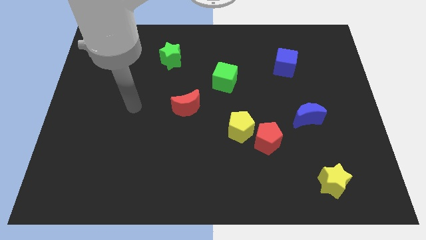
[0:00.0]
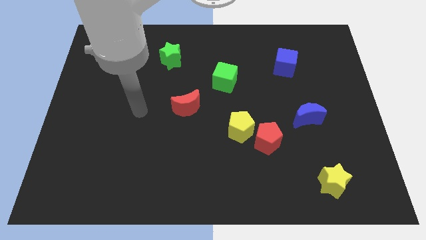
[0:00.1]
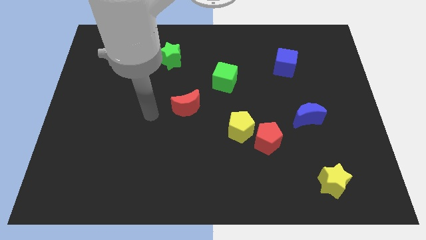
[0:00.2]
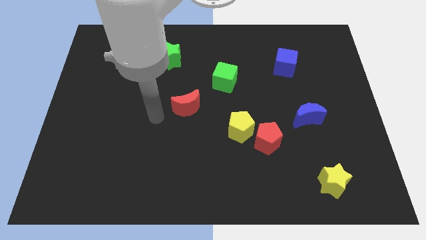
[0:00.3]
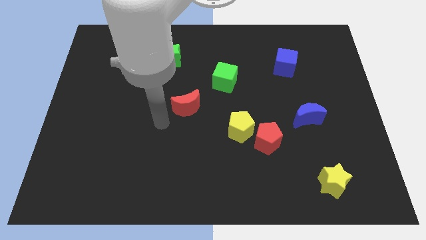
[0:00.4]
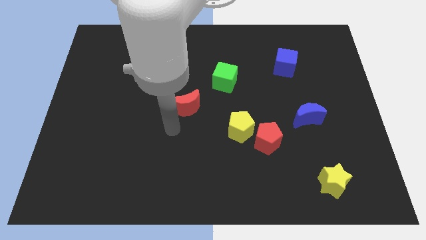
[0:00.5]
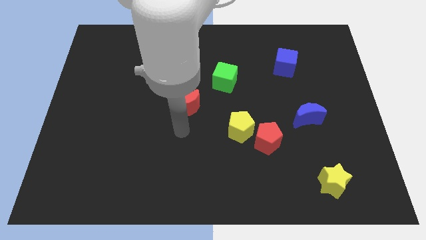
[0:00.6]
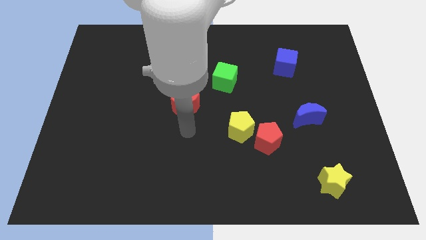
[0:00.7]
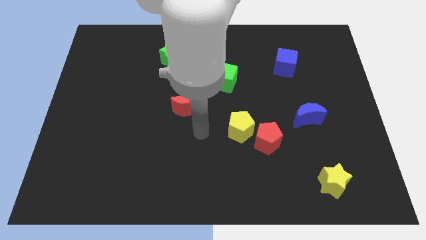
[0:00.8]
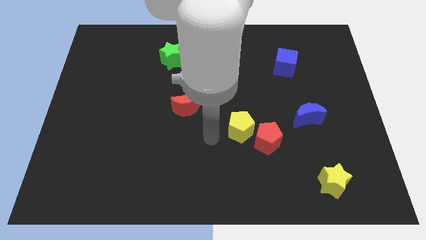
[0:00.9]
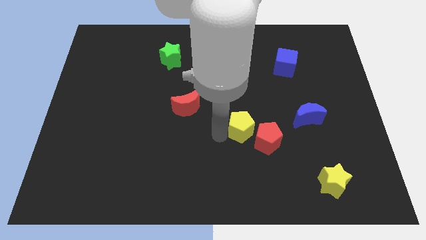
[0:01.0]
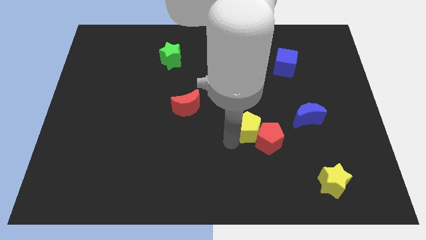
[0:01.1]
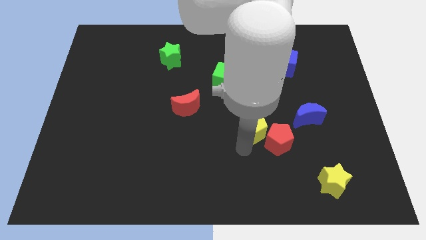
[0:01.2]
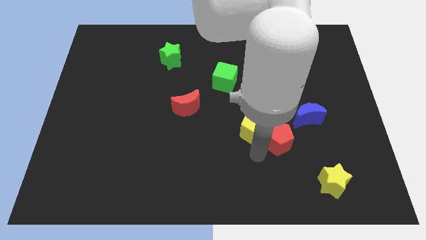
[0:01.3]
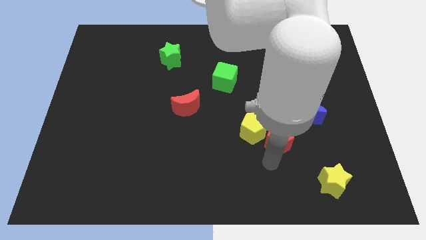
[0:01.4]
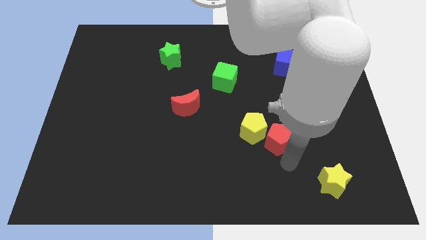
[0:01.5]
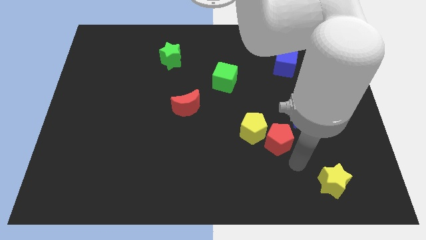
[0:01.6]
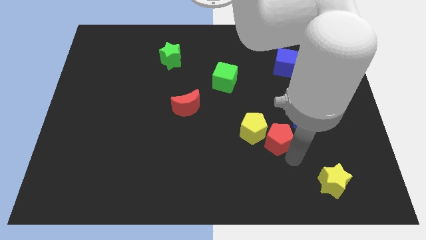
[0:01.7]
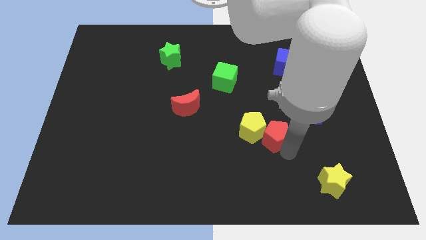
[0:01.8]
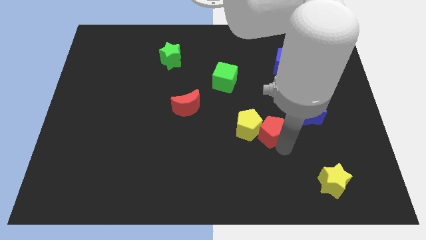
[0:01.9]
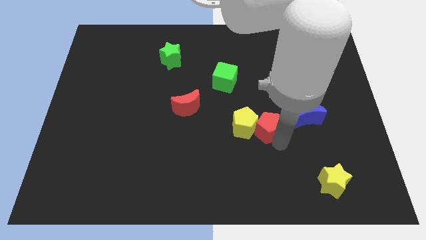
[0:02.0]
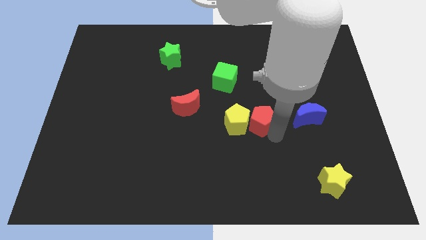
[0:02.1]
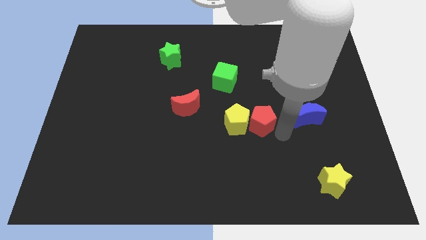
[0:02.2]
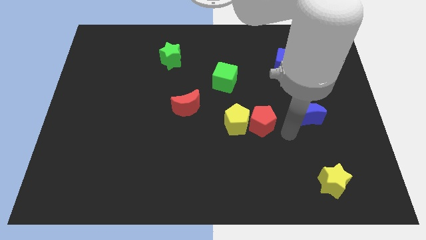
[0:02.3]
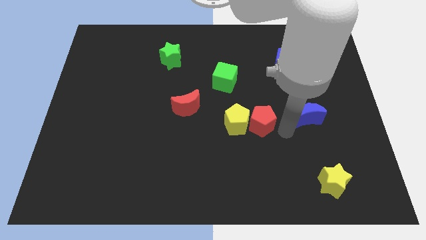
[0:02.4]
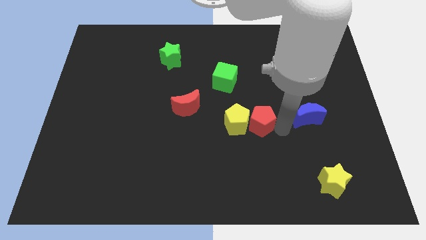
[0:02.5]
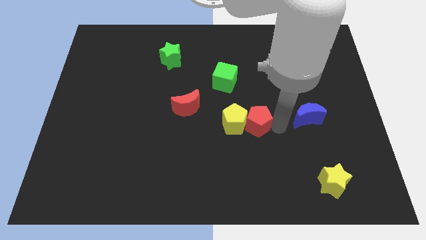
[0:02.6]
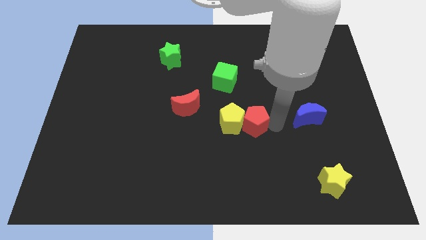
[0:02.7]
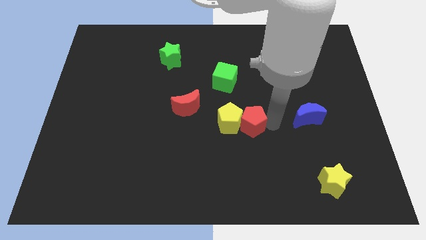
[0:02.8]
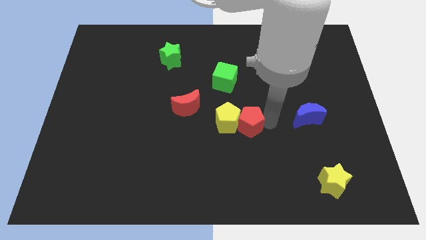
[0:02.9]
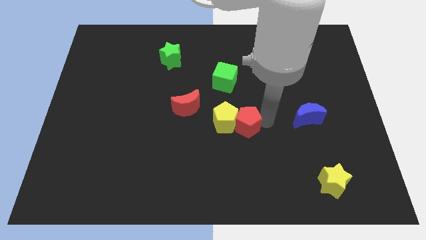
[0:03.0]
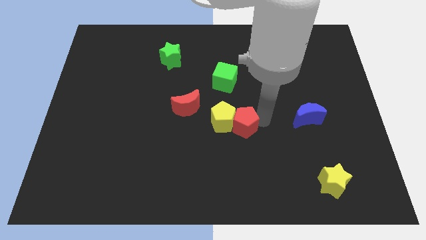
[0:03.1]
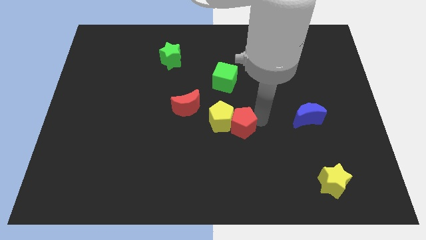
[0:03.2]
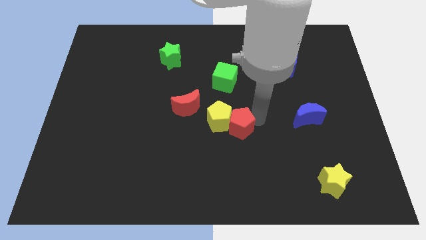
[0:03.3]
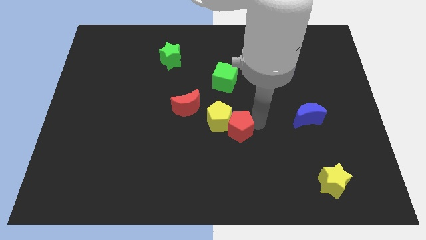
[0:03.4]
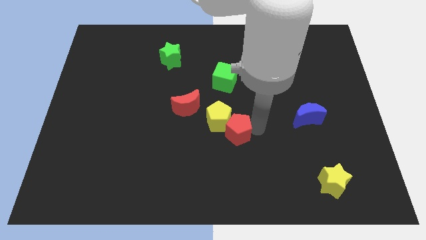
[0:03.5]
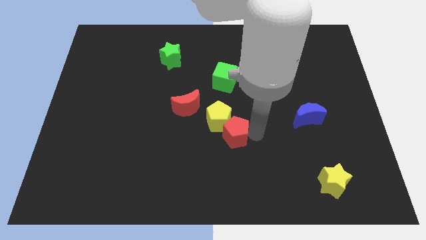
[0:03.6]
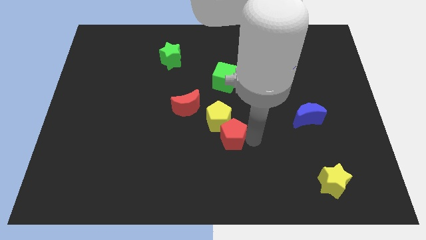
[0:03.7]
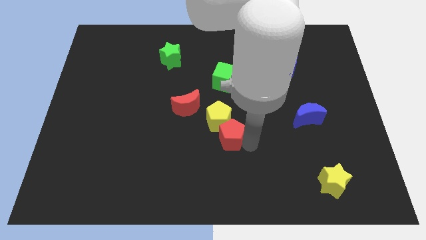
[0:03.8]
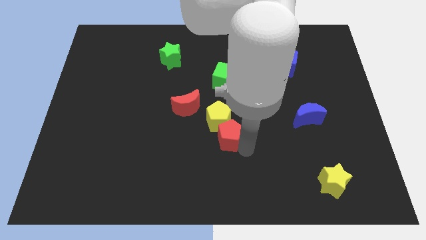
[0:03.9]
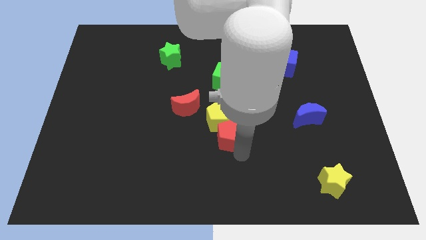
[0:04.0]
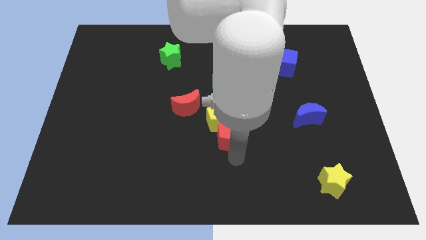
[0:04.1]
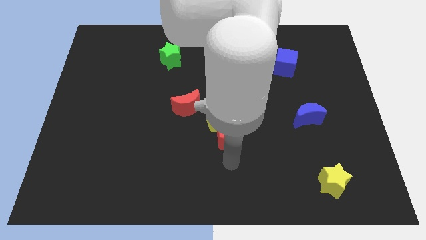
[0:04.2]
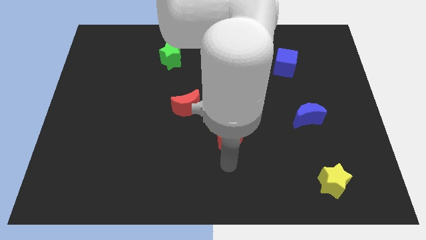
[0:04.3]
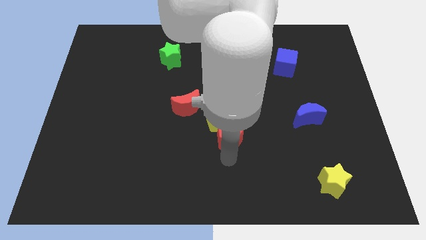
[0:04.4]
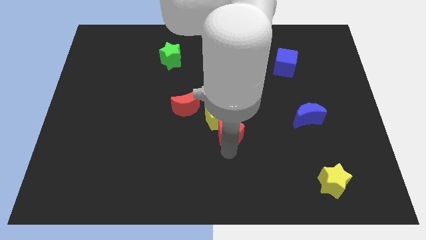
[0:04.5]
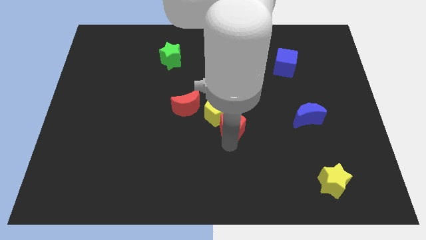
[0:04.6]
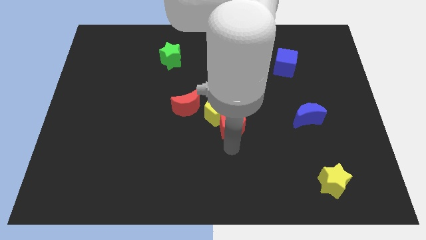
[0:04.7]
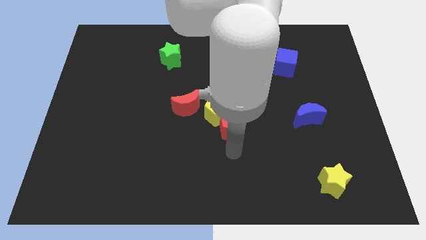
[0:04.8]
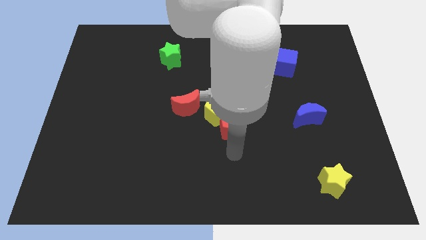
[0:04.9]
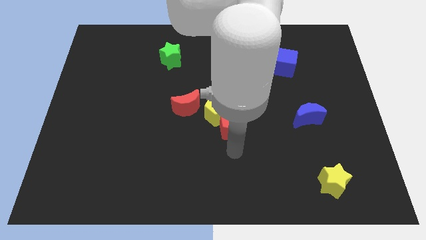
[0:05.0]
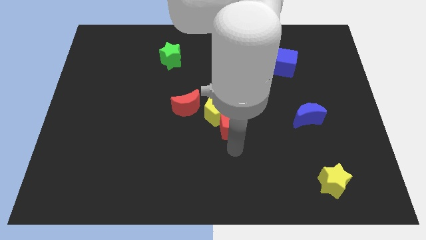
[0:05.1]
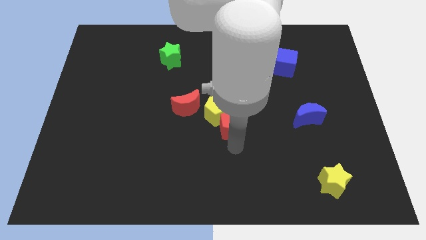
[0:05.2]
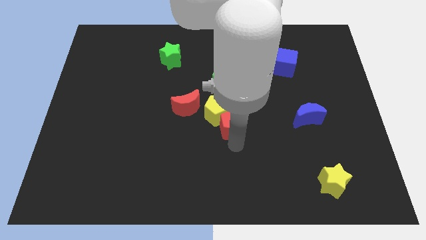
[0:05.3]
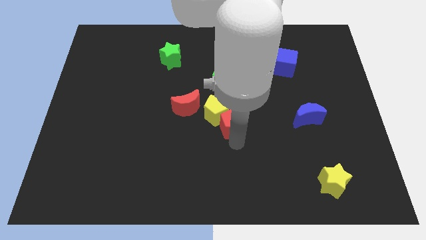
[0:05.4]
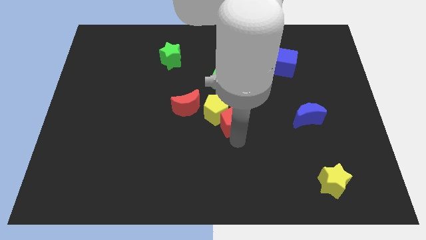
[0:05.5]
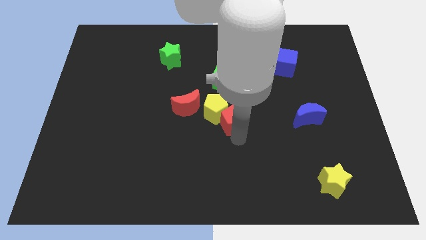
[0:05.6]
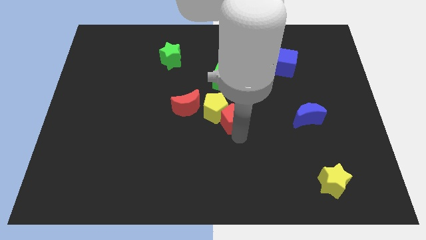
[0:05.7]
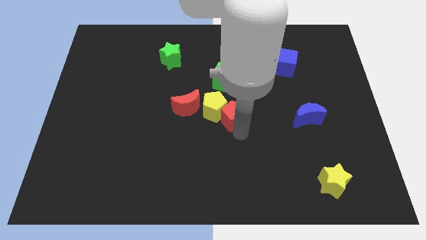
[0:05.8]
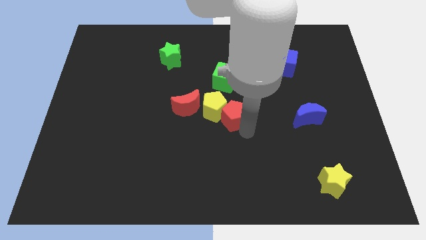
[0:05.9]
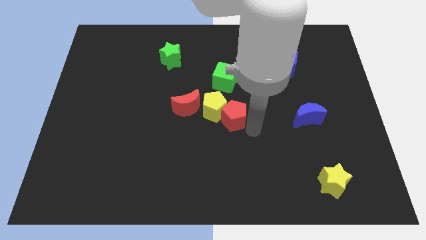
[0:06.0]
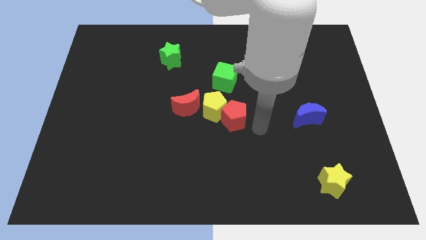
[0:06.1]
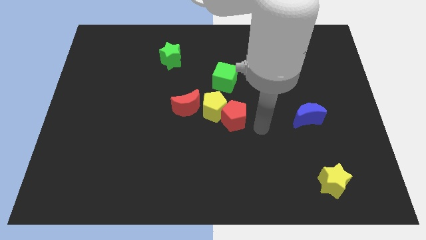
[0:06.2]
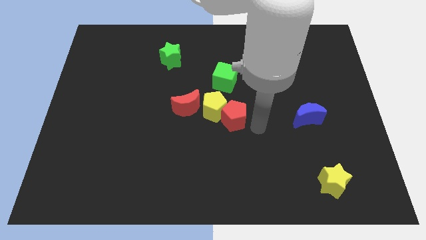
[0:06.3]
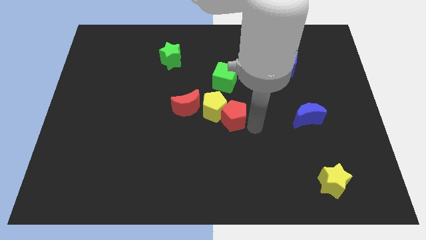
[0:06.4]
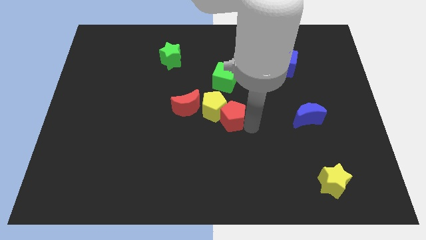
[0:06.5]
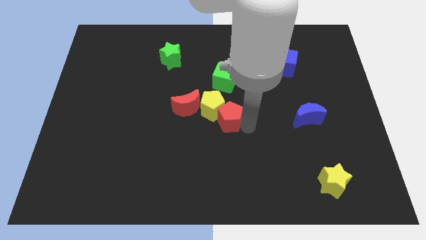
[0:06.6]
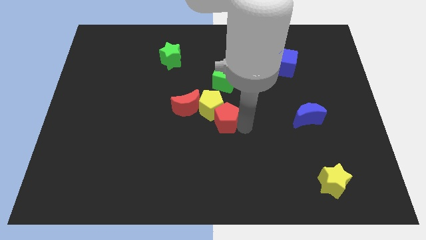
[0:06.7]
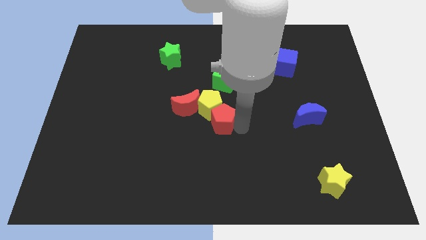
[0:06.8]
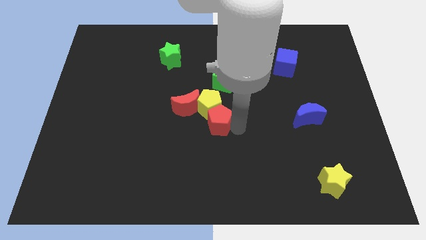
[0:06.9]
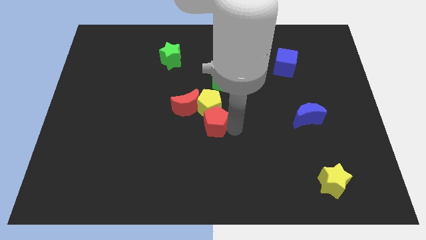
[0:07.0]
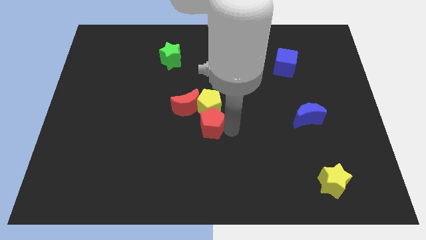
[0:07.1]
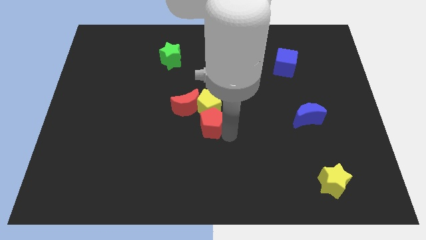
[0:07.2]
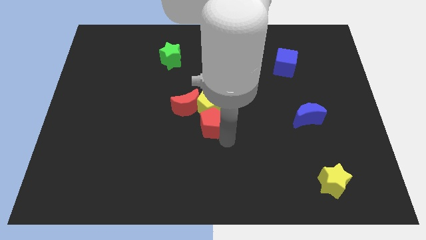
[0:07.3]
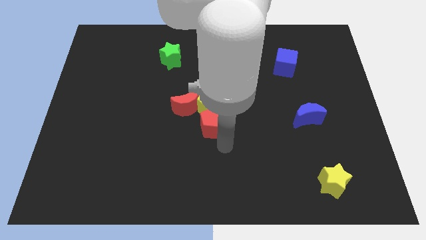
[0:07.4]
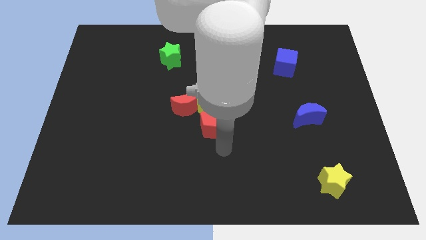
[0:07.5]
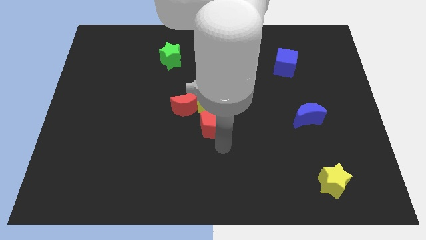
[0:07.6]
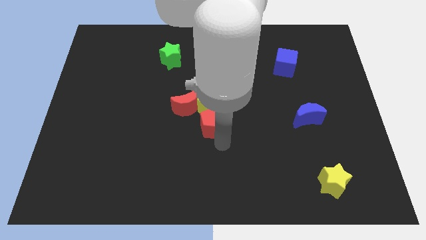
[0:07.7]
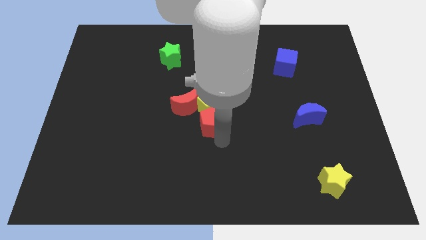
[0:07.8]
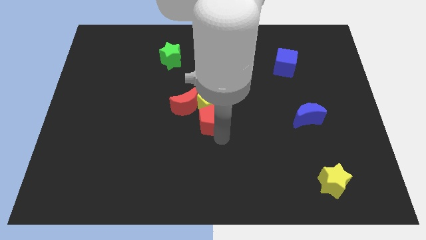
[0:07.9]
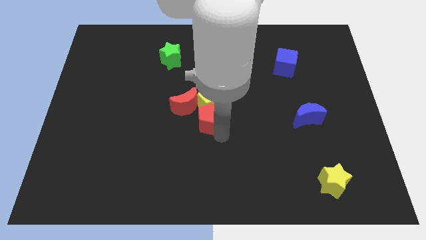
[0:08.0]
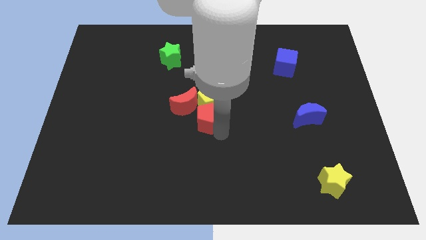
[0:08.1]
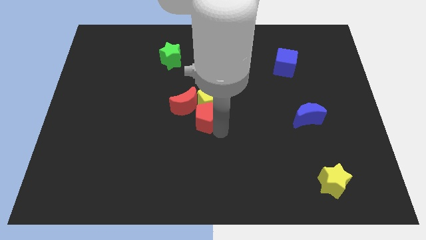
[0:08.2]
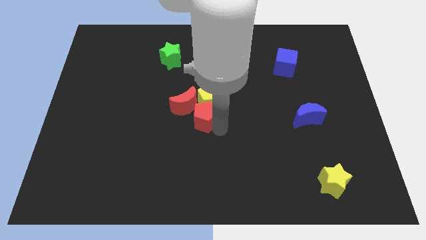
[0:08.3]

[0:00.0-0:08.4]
push the red pentagon close to the red moon
